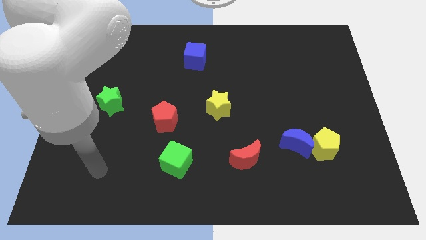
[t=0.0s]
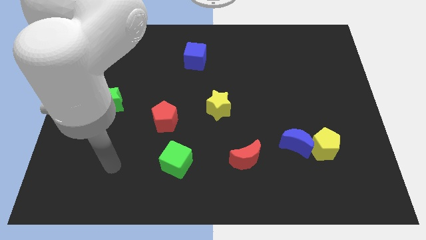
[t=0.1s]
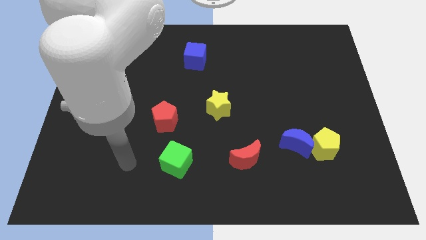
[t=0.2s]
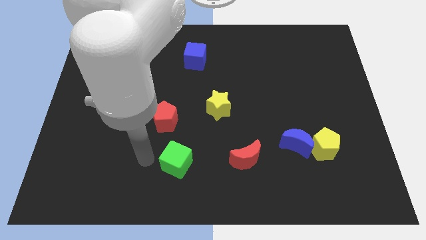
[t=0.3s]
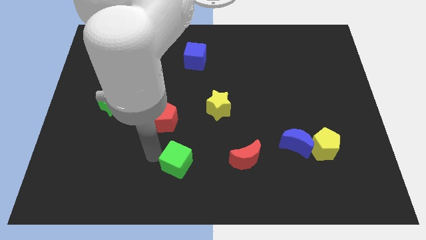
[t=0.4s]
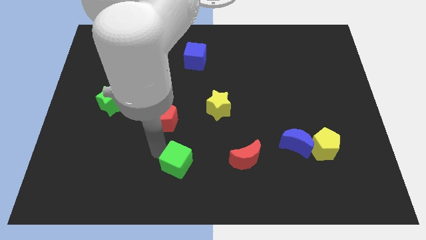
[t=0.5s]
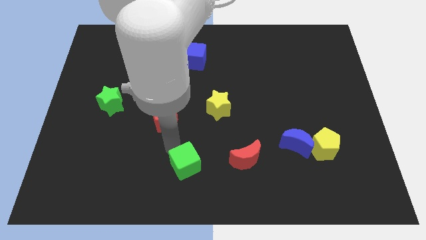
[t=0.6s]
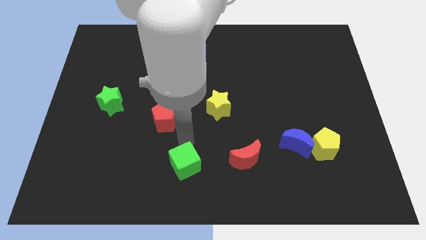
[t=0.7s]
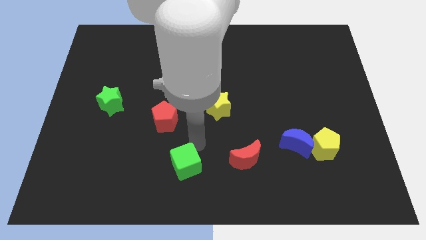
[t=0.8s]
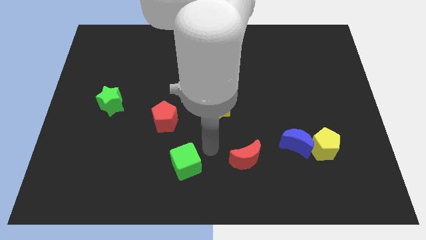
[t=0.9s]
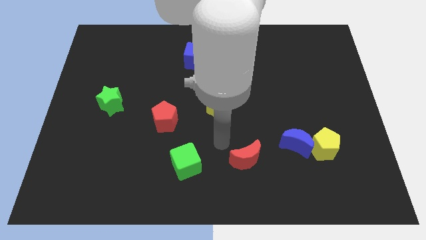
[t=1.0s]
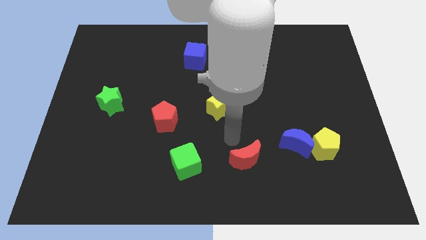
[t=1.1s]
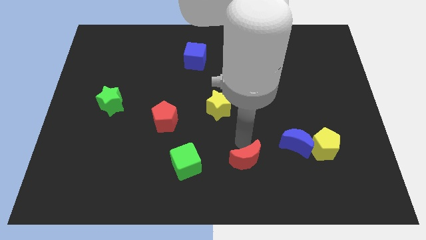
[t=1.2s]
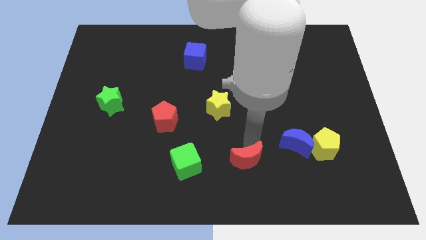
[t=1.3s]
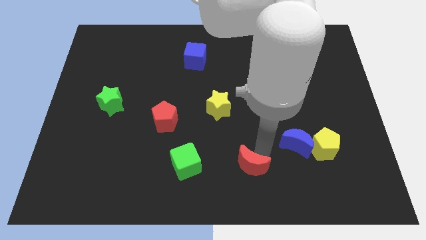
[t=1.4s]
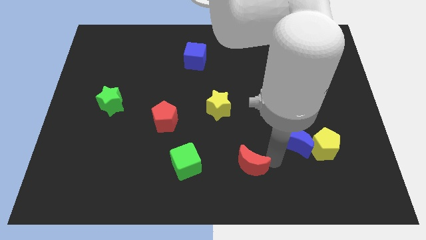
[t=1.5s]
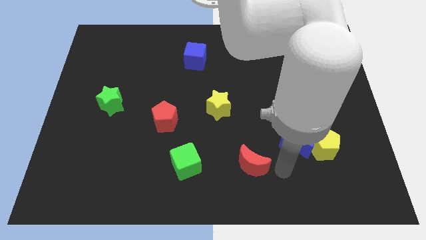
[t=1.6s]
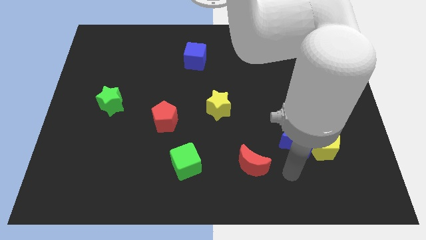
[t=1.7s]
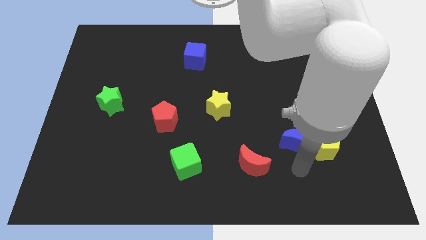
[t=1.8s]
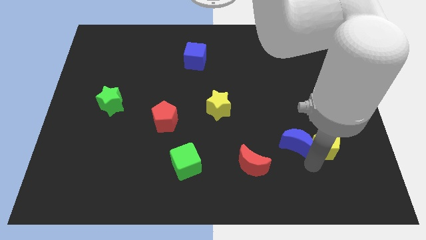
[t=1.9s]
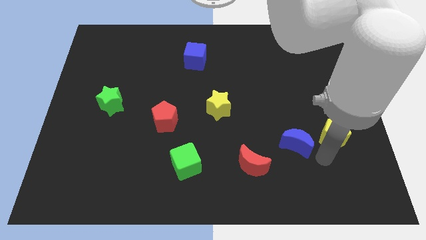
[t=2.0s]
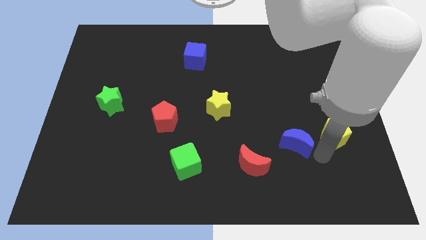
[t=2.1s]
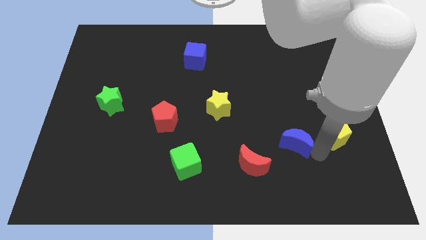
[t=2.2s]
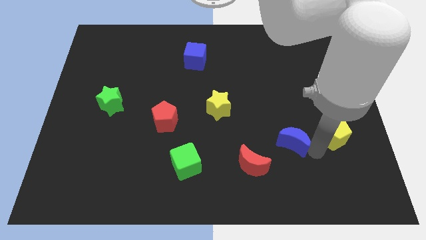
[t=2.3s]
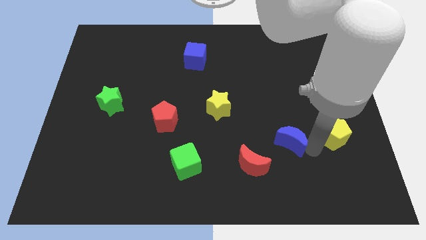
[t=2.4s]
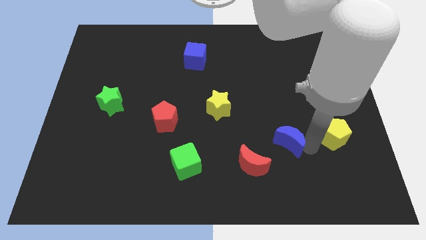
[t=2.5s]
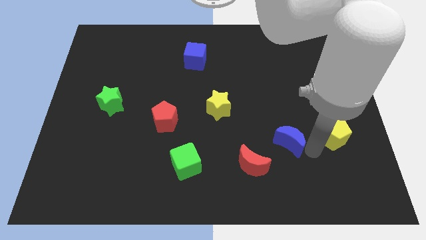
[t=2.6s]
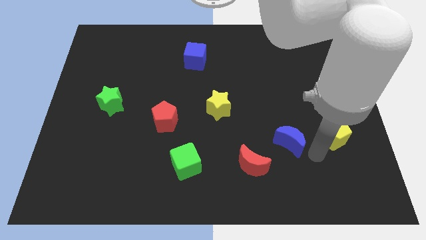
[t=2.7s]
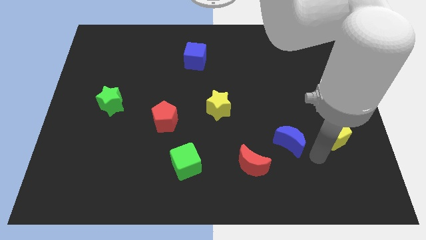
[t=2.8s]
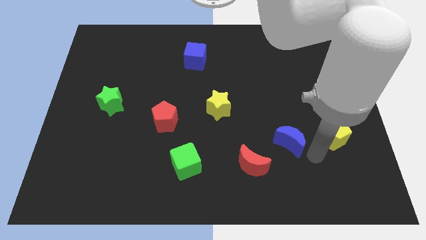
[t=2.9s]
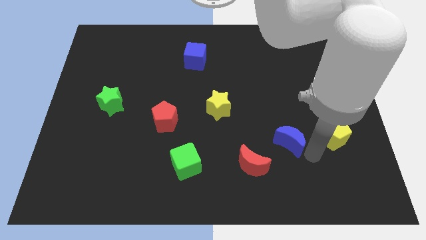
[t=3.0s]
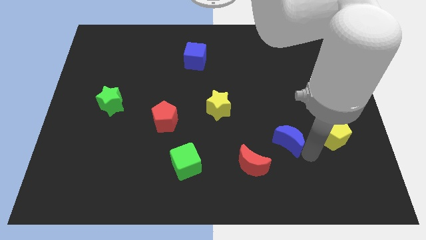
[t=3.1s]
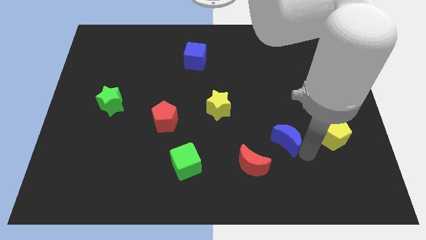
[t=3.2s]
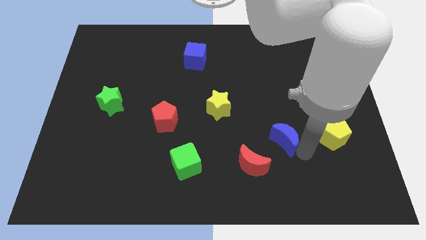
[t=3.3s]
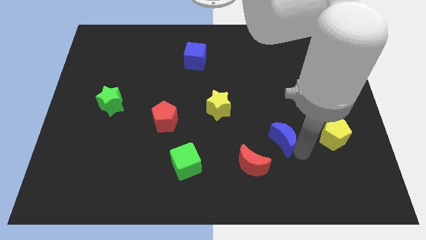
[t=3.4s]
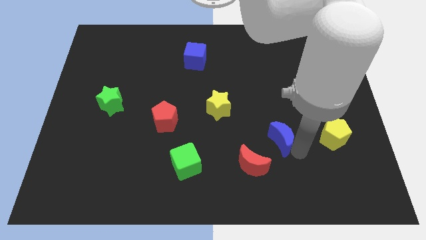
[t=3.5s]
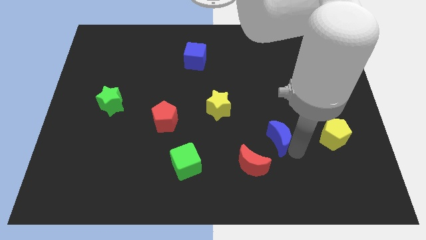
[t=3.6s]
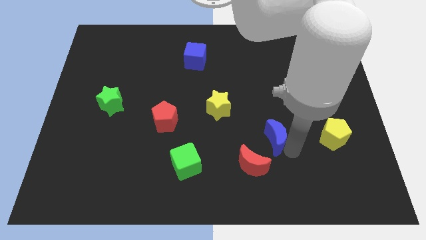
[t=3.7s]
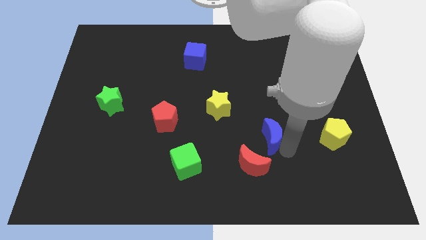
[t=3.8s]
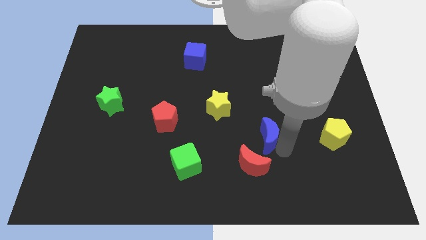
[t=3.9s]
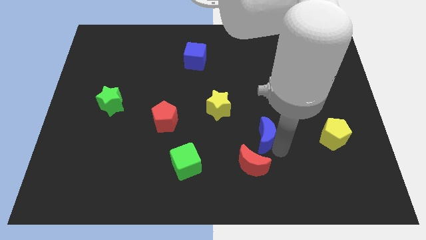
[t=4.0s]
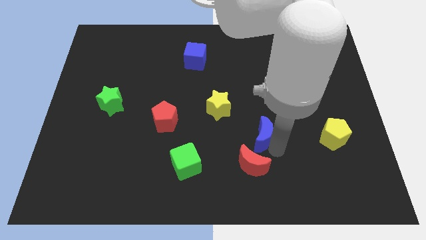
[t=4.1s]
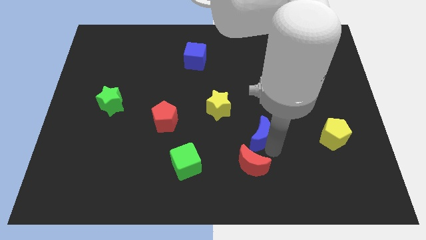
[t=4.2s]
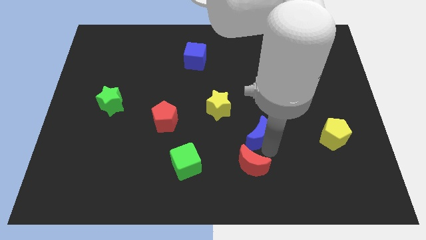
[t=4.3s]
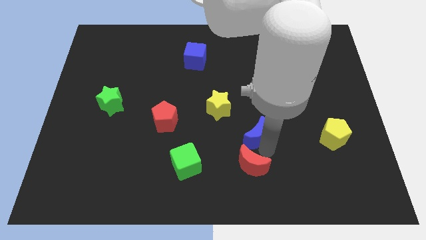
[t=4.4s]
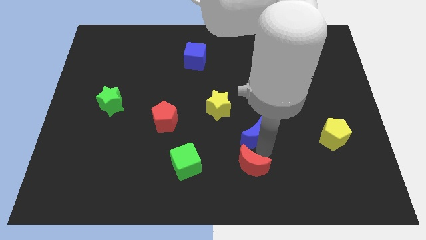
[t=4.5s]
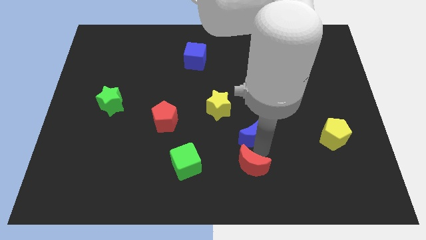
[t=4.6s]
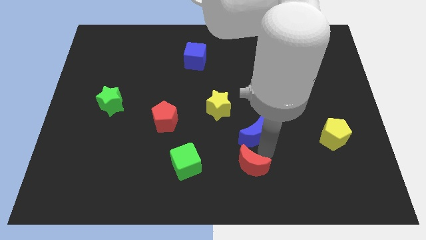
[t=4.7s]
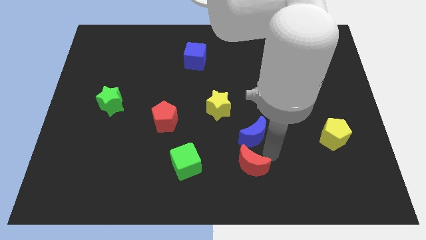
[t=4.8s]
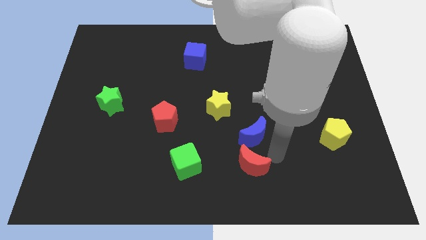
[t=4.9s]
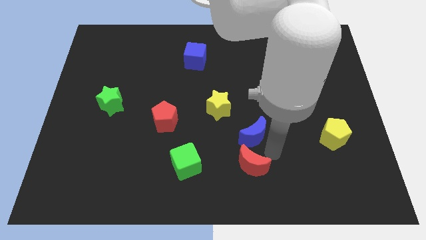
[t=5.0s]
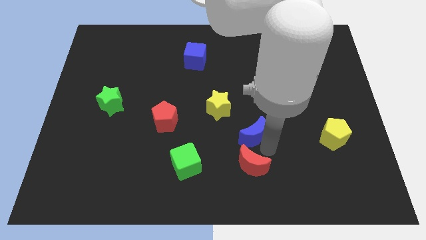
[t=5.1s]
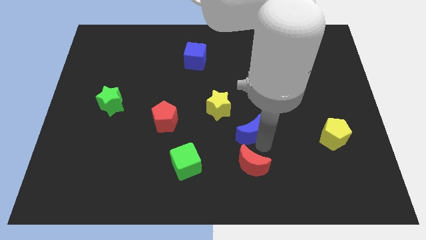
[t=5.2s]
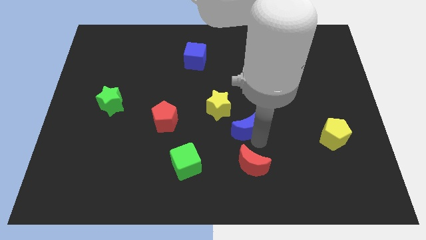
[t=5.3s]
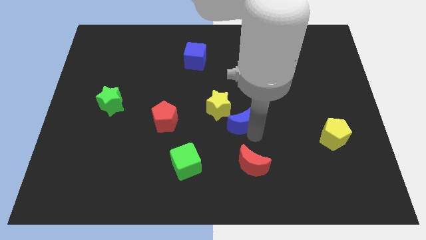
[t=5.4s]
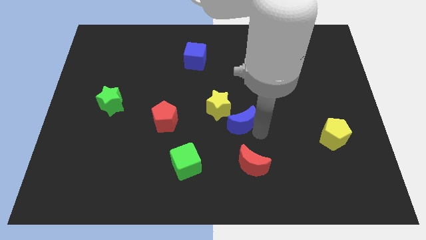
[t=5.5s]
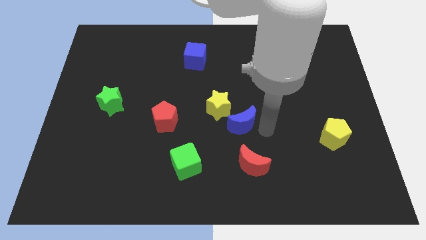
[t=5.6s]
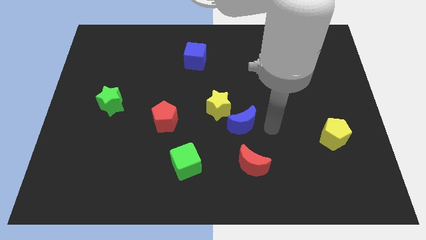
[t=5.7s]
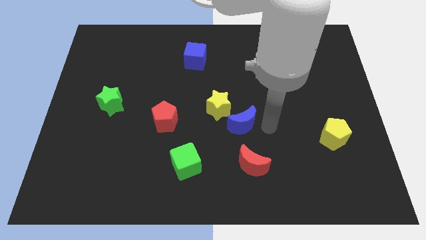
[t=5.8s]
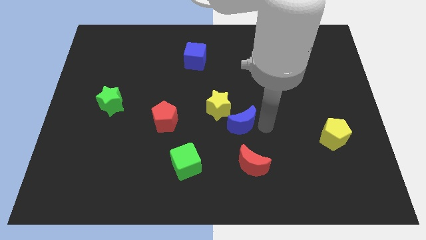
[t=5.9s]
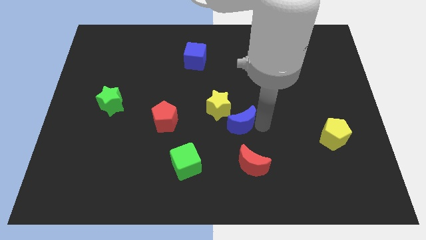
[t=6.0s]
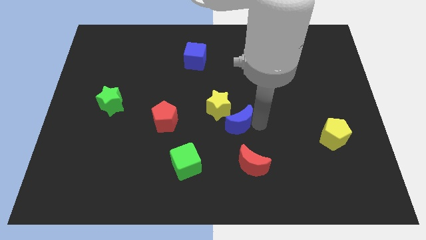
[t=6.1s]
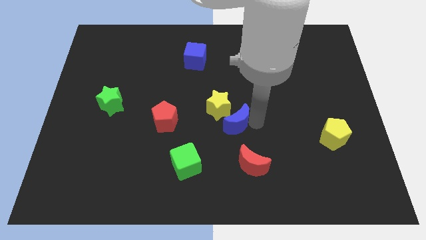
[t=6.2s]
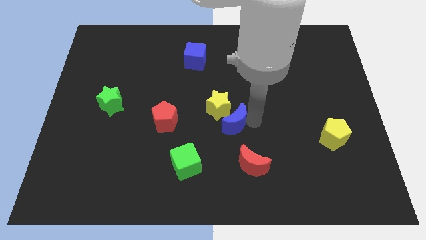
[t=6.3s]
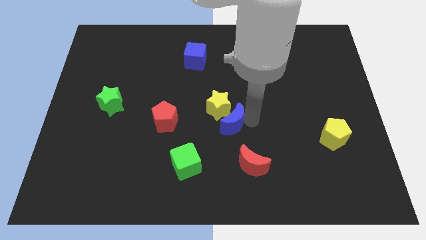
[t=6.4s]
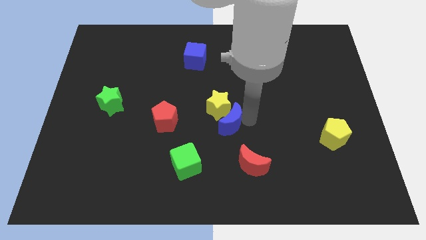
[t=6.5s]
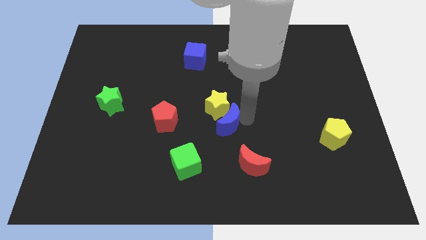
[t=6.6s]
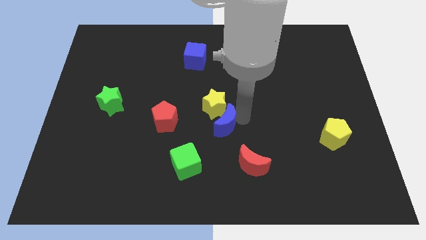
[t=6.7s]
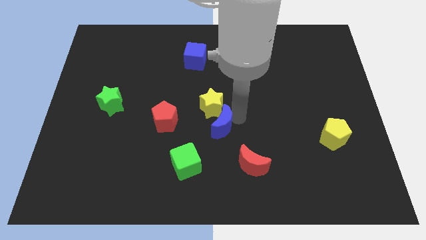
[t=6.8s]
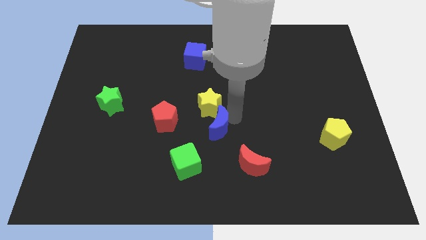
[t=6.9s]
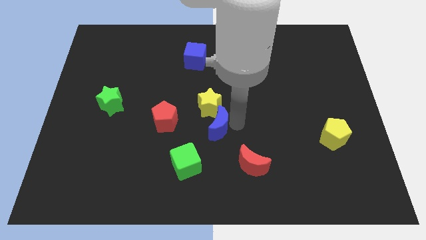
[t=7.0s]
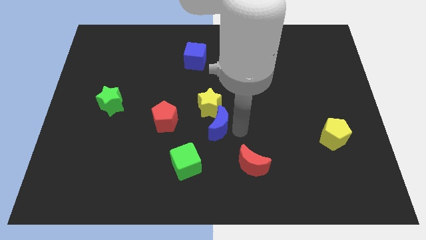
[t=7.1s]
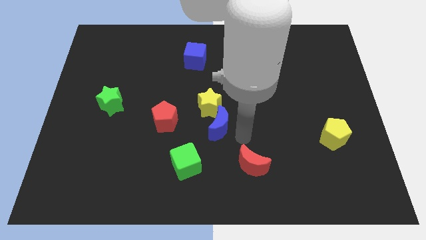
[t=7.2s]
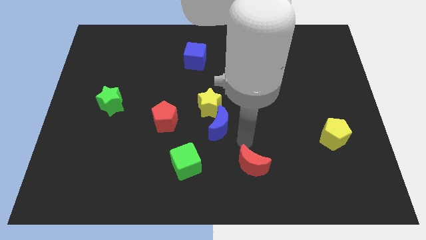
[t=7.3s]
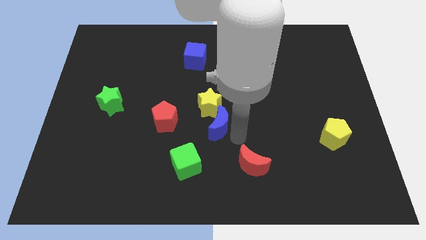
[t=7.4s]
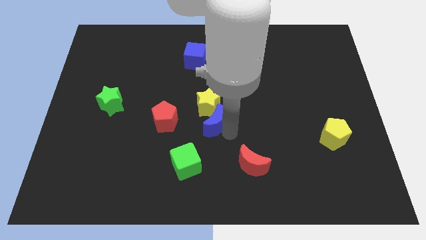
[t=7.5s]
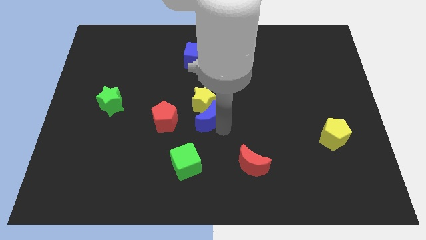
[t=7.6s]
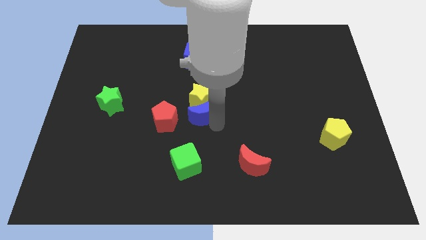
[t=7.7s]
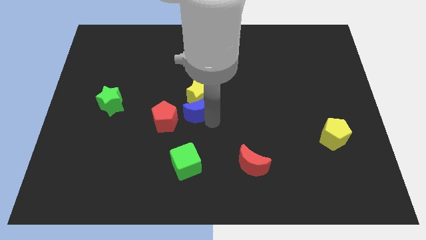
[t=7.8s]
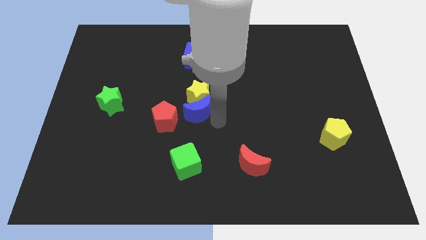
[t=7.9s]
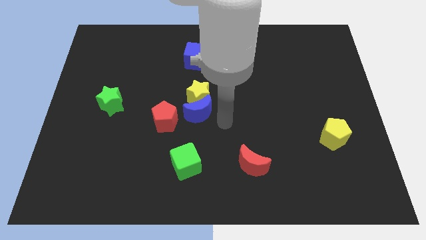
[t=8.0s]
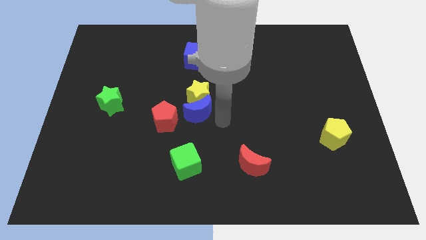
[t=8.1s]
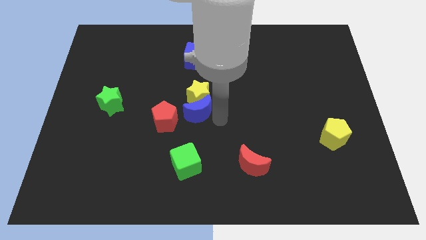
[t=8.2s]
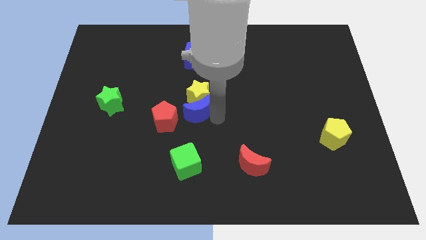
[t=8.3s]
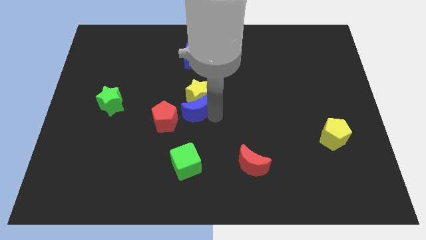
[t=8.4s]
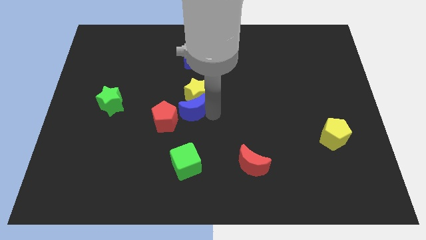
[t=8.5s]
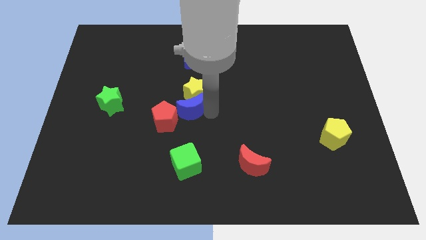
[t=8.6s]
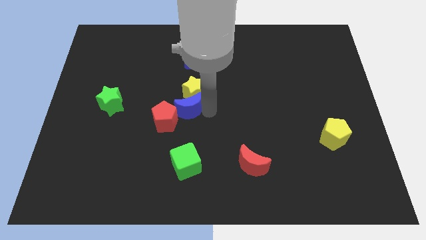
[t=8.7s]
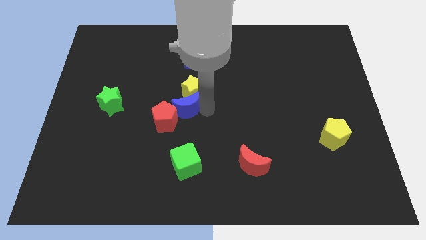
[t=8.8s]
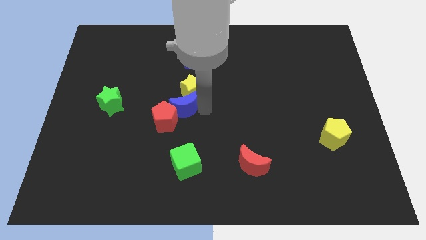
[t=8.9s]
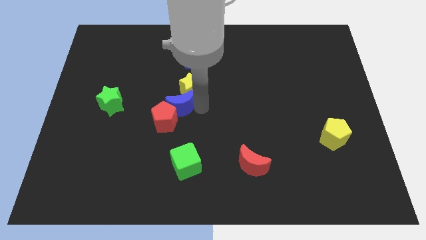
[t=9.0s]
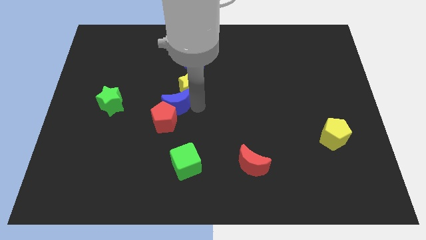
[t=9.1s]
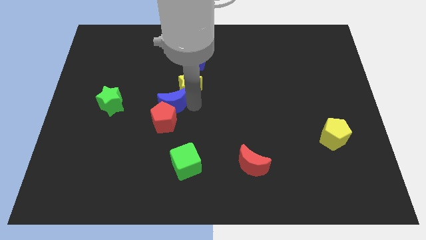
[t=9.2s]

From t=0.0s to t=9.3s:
move the blue moon to the top left of the red pentagon
